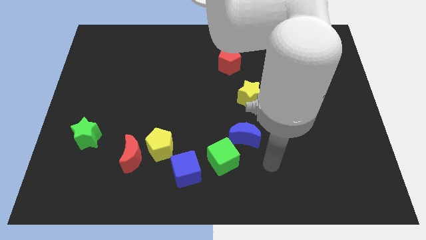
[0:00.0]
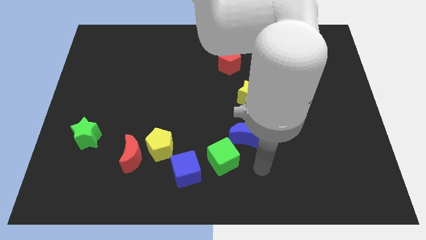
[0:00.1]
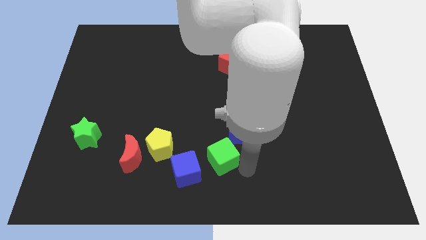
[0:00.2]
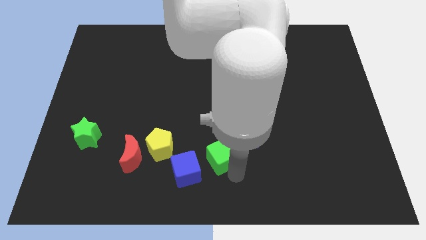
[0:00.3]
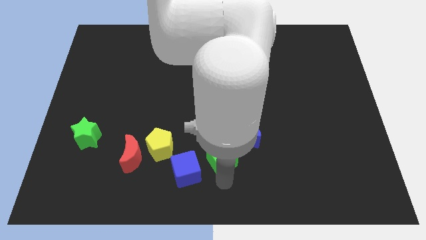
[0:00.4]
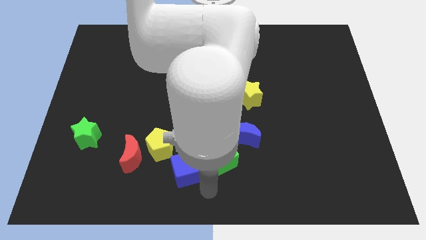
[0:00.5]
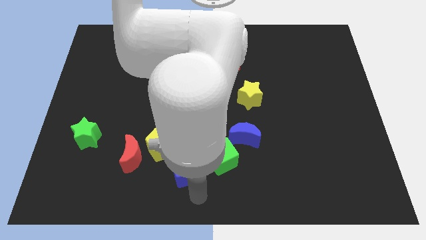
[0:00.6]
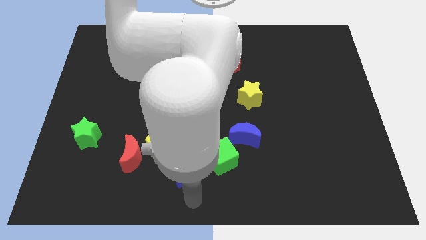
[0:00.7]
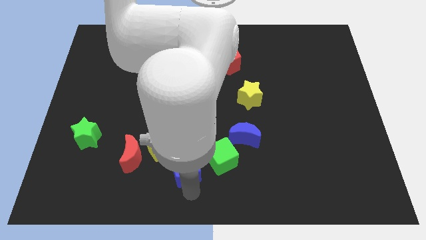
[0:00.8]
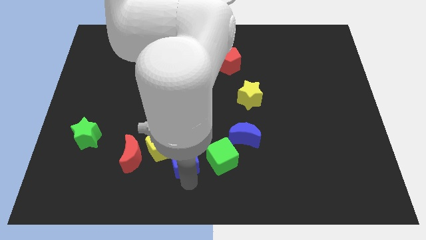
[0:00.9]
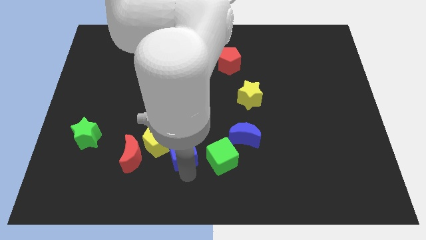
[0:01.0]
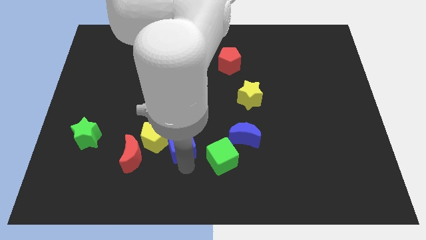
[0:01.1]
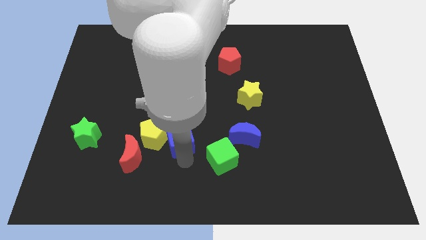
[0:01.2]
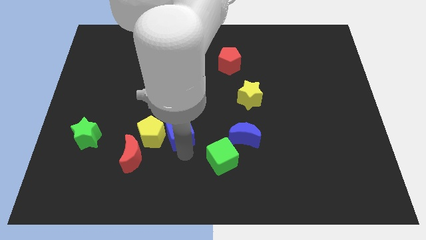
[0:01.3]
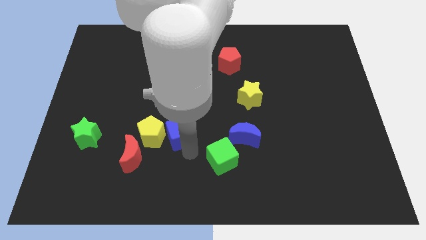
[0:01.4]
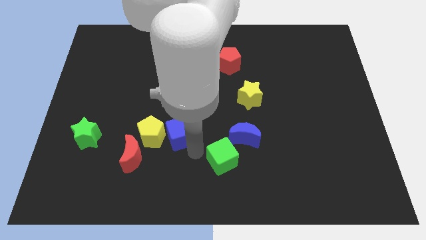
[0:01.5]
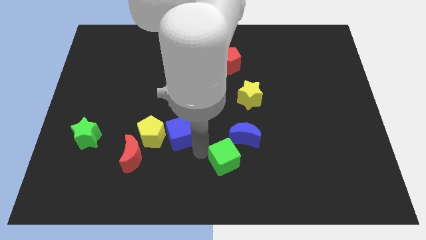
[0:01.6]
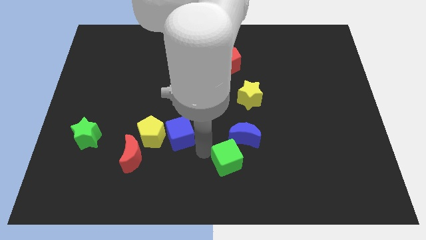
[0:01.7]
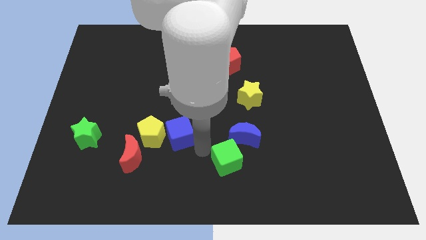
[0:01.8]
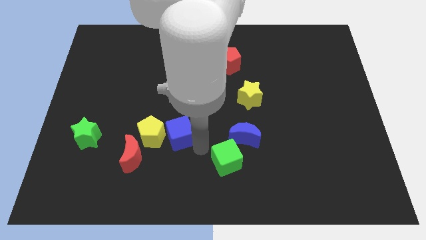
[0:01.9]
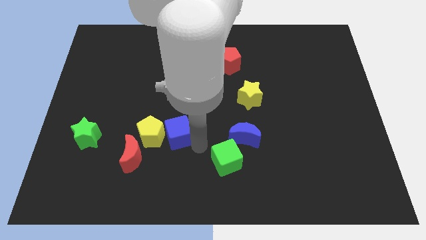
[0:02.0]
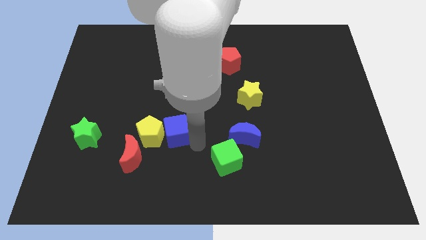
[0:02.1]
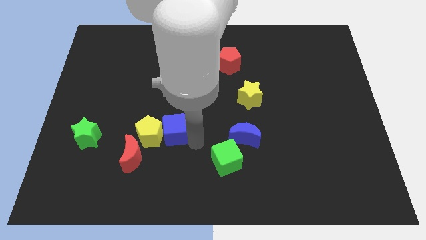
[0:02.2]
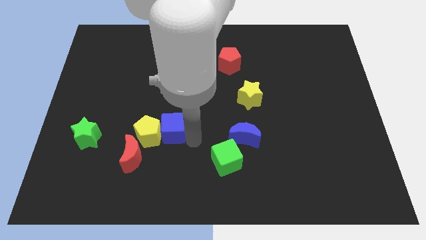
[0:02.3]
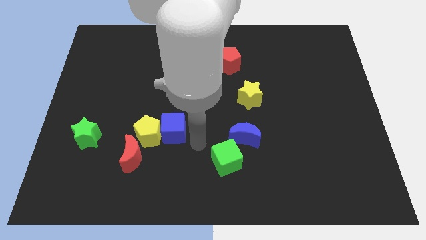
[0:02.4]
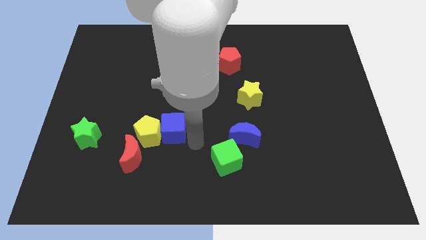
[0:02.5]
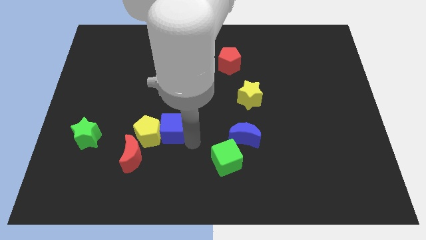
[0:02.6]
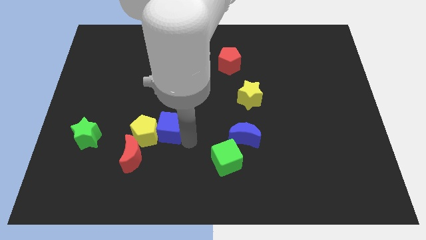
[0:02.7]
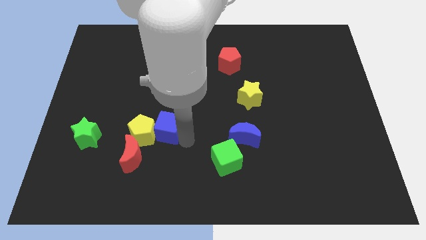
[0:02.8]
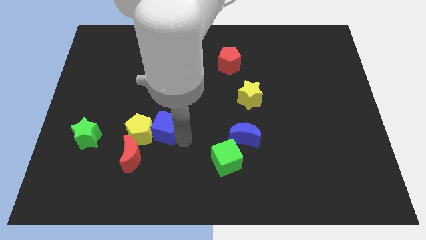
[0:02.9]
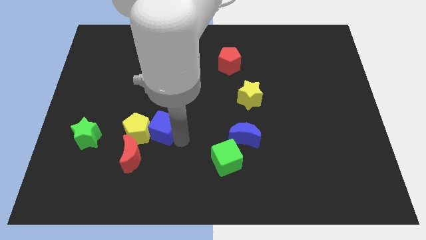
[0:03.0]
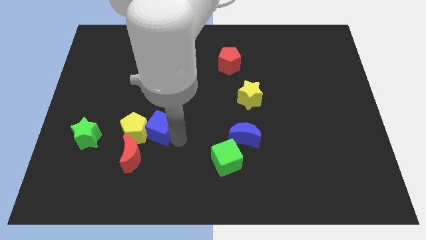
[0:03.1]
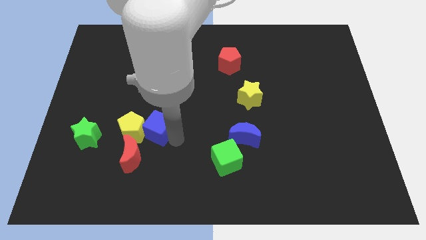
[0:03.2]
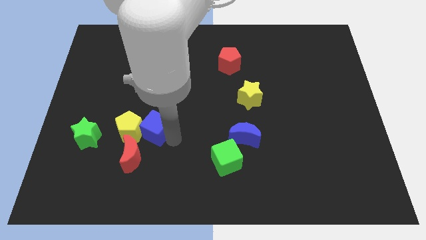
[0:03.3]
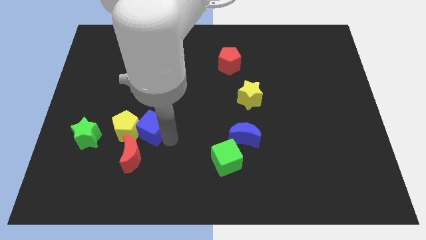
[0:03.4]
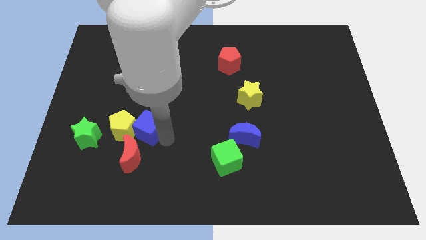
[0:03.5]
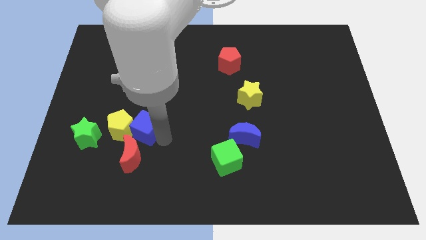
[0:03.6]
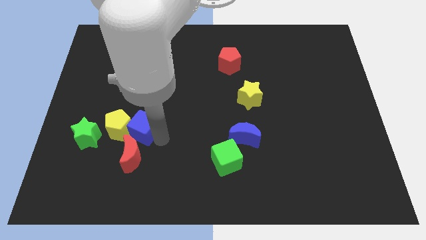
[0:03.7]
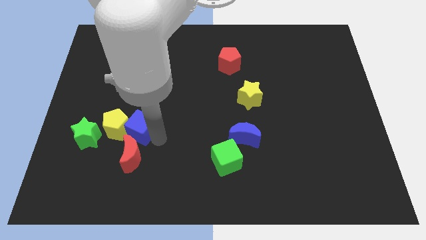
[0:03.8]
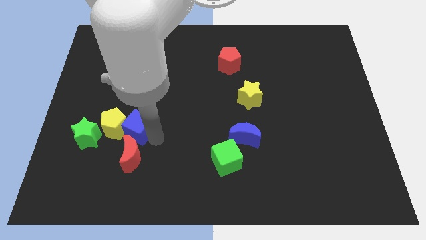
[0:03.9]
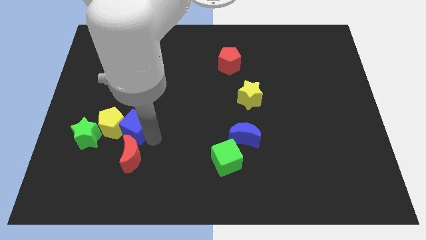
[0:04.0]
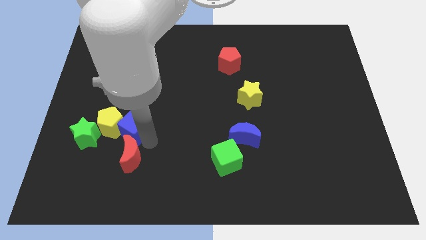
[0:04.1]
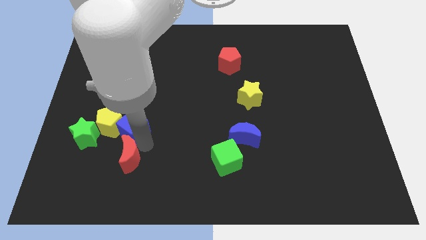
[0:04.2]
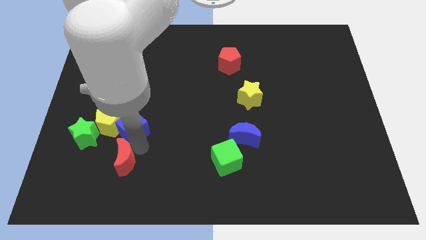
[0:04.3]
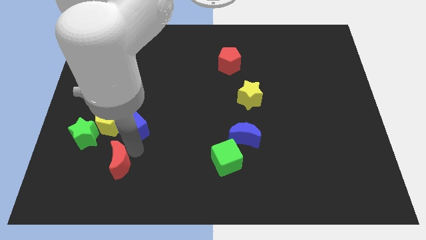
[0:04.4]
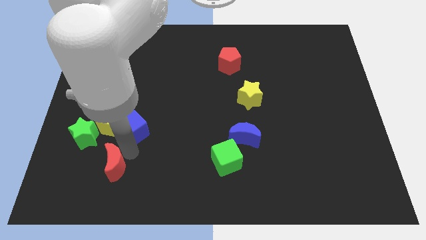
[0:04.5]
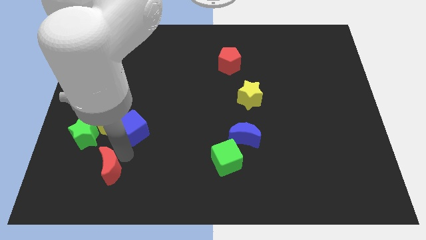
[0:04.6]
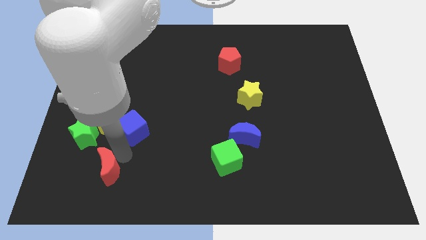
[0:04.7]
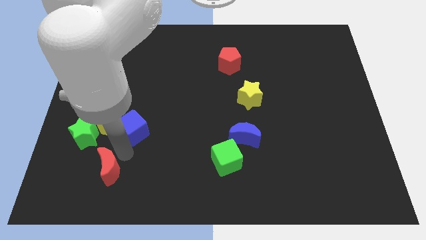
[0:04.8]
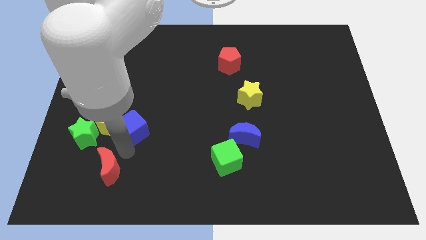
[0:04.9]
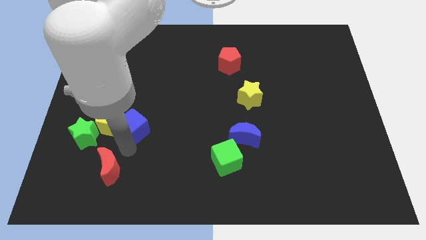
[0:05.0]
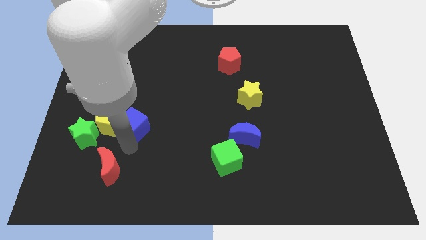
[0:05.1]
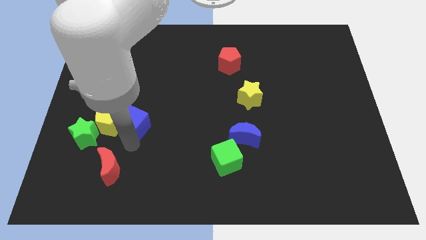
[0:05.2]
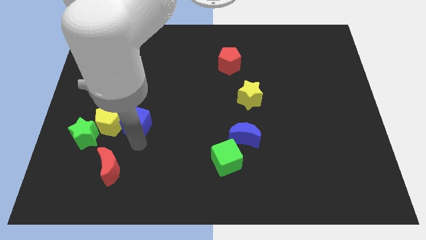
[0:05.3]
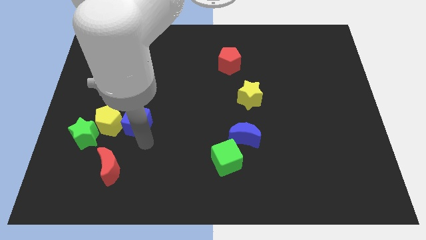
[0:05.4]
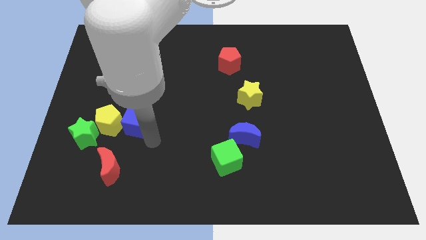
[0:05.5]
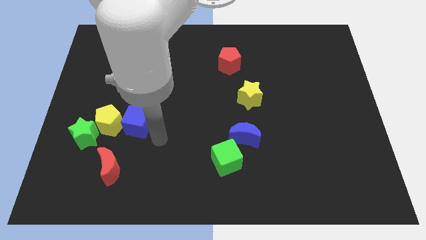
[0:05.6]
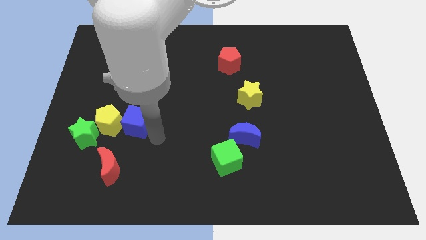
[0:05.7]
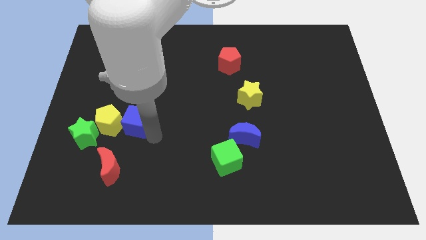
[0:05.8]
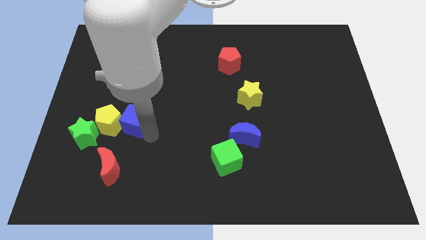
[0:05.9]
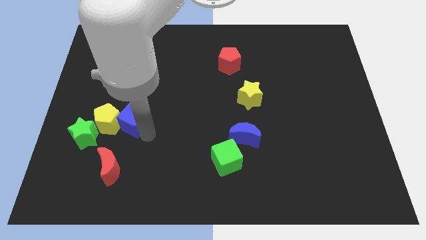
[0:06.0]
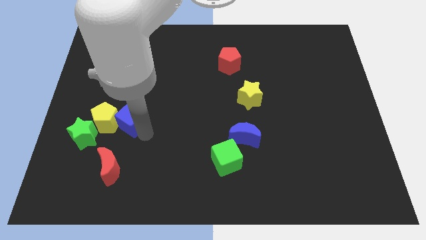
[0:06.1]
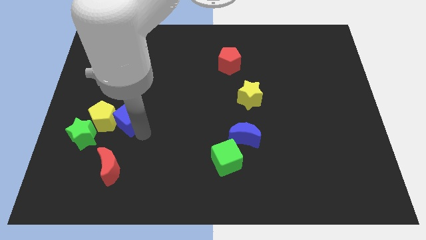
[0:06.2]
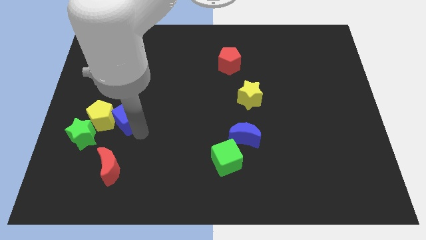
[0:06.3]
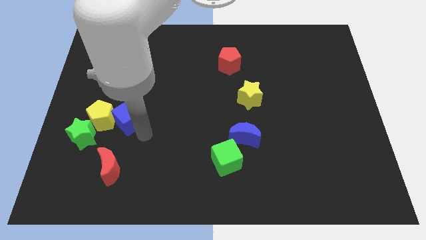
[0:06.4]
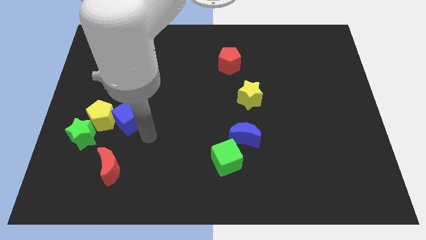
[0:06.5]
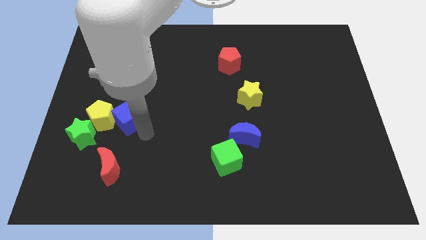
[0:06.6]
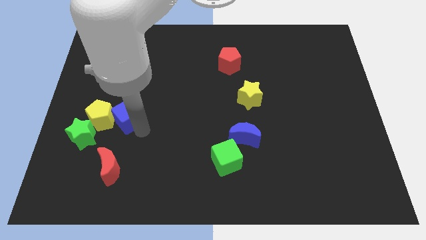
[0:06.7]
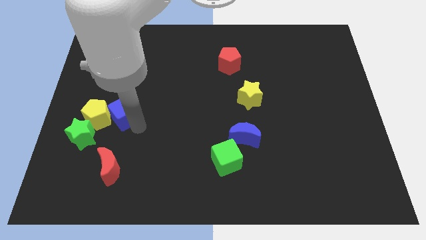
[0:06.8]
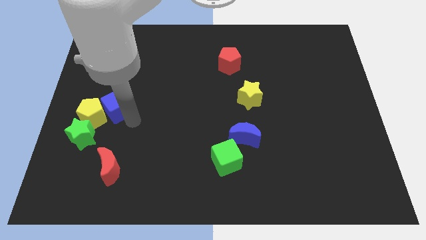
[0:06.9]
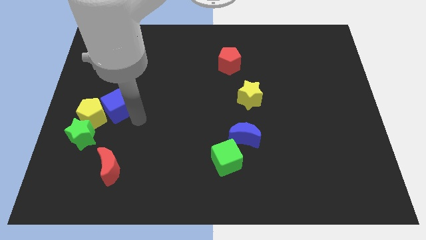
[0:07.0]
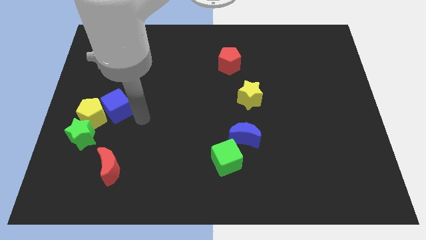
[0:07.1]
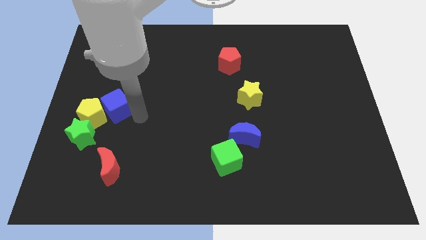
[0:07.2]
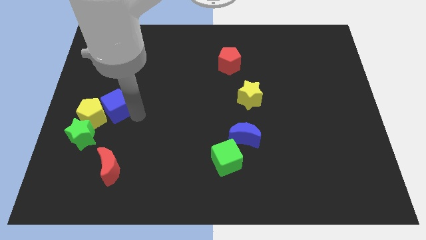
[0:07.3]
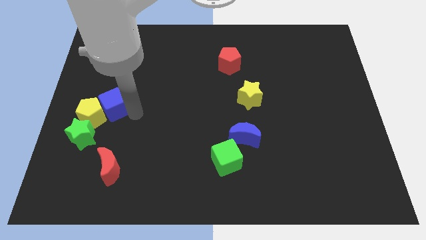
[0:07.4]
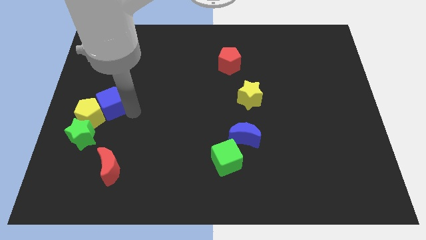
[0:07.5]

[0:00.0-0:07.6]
move the blue cube above the green star
